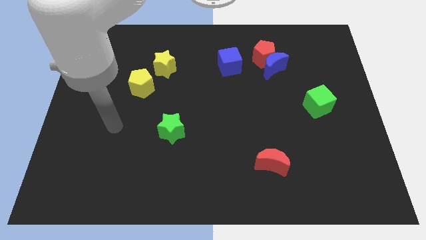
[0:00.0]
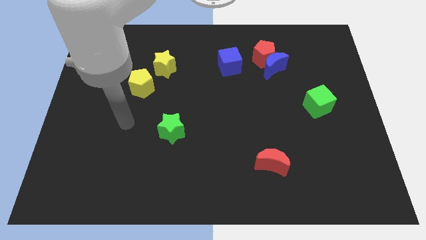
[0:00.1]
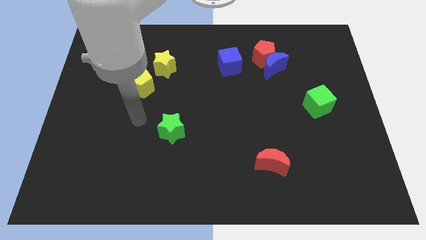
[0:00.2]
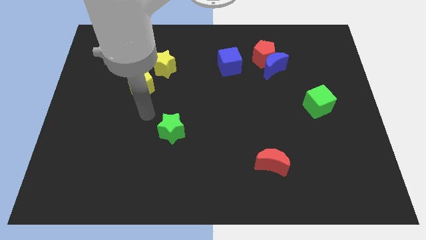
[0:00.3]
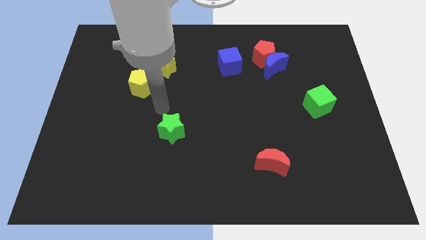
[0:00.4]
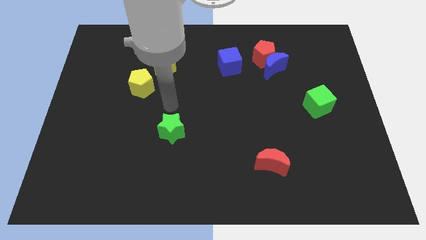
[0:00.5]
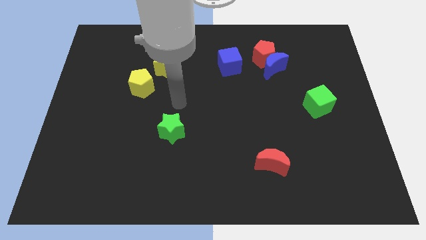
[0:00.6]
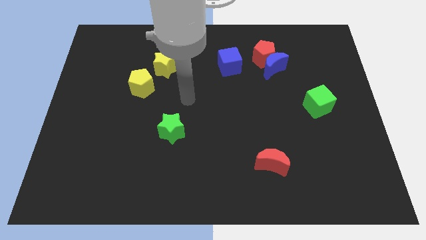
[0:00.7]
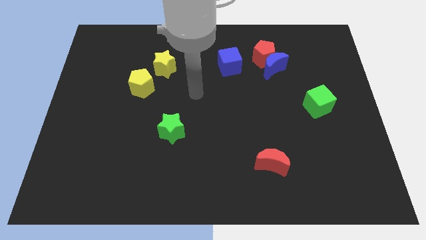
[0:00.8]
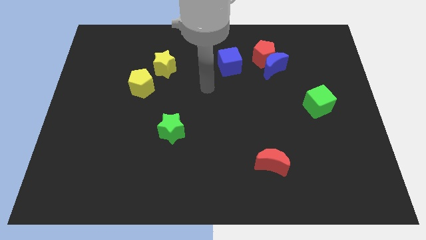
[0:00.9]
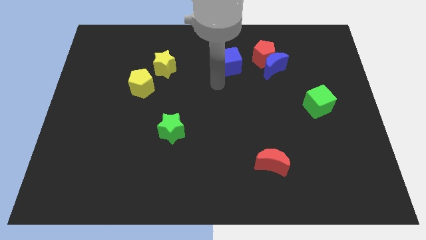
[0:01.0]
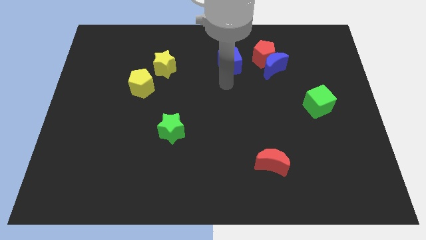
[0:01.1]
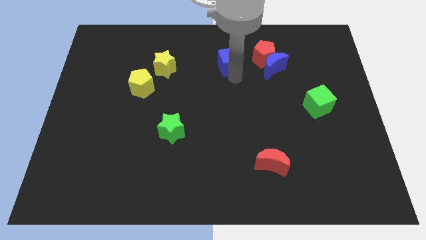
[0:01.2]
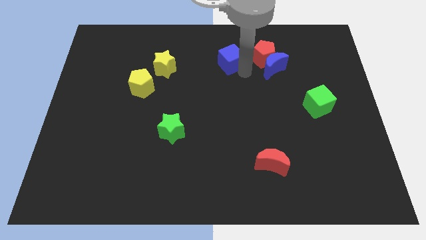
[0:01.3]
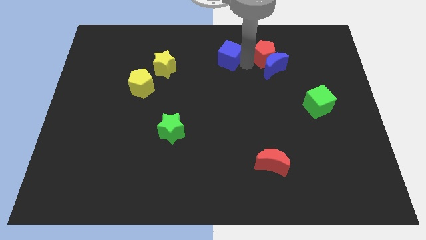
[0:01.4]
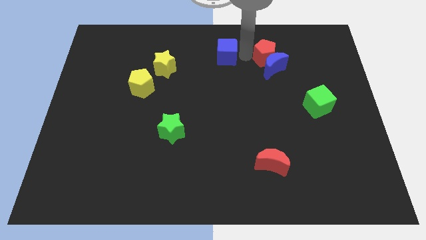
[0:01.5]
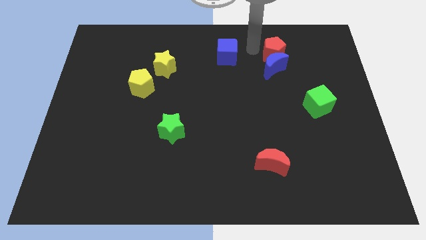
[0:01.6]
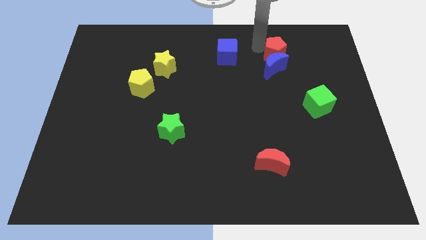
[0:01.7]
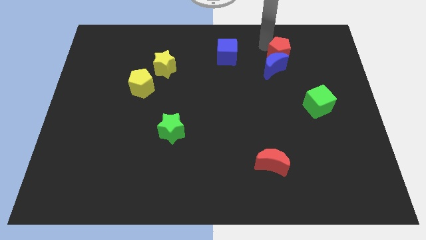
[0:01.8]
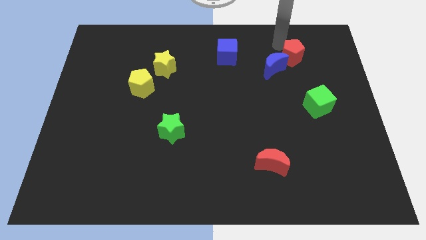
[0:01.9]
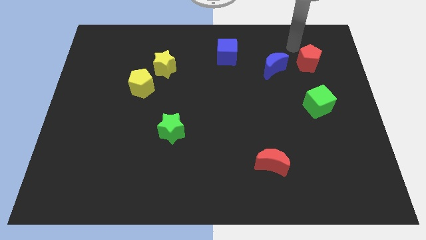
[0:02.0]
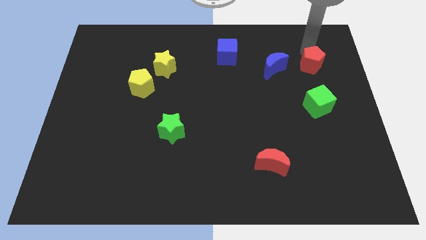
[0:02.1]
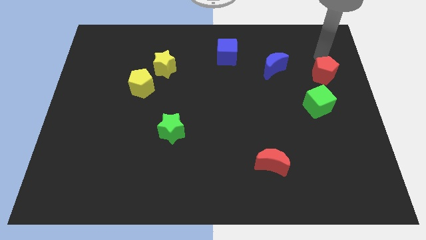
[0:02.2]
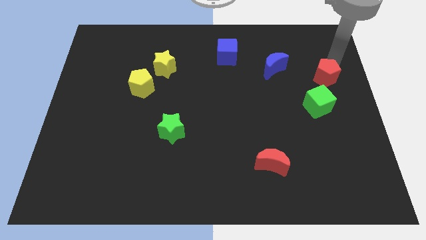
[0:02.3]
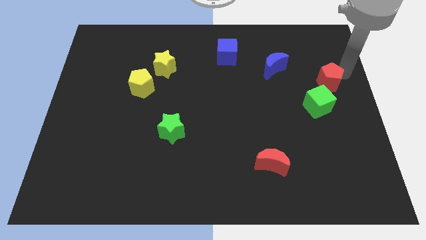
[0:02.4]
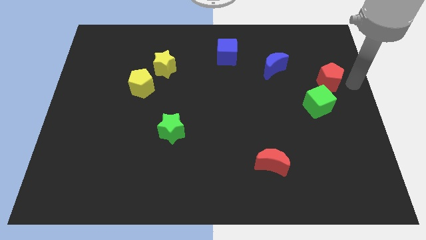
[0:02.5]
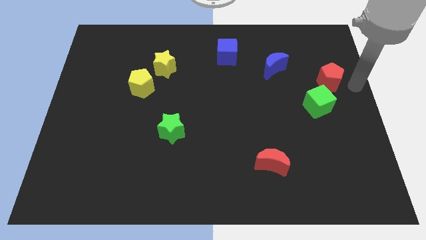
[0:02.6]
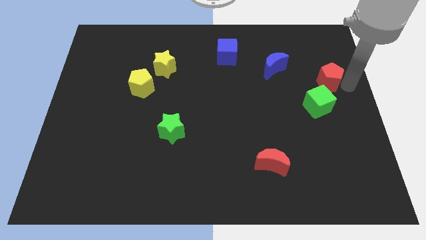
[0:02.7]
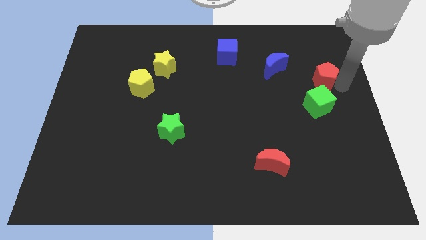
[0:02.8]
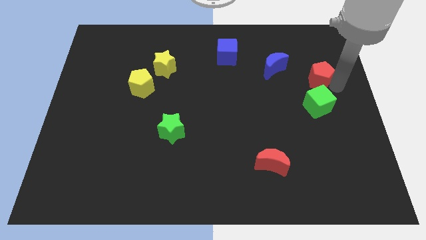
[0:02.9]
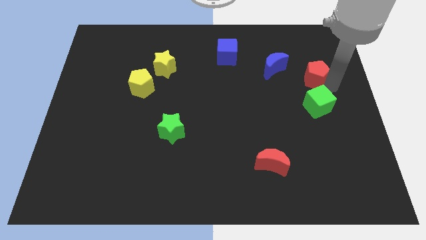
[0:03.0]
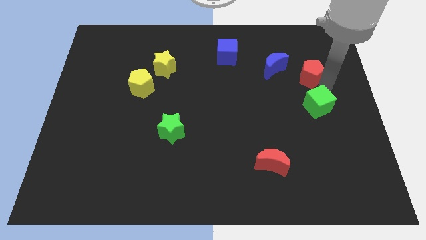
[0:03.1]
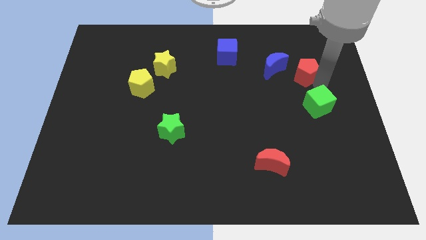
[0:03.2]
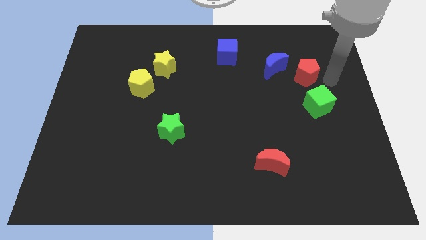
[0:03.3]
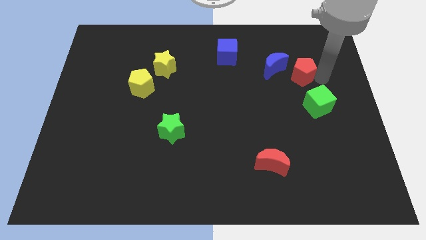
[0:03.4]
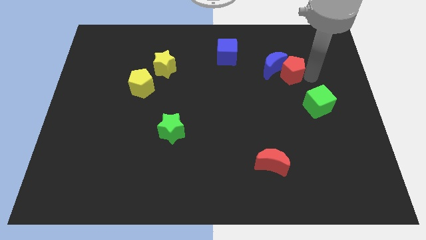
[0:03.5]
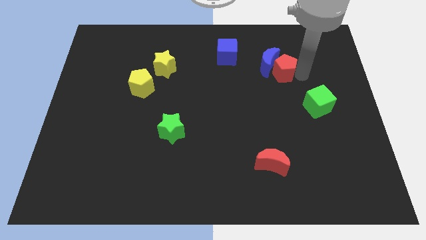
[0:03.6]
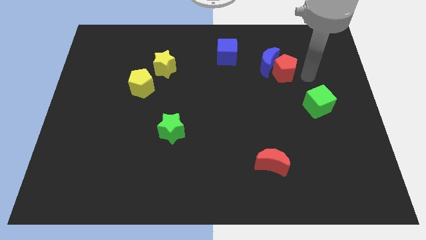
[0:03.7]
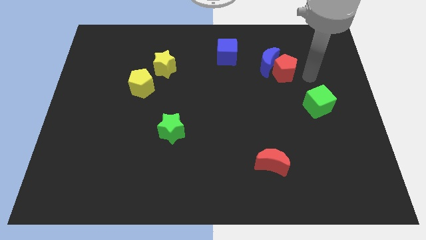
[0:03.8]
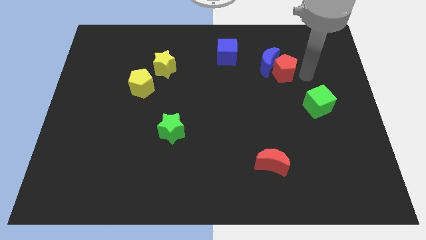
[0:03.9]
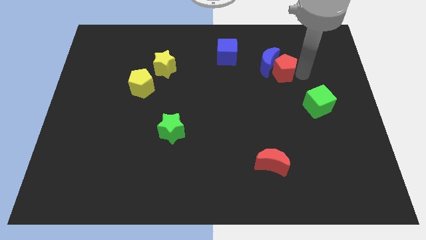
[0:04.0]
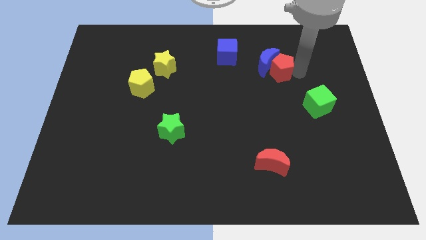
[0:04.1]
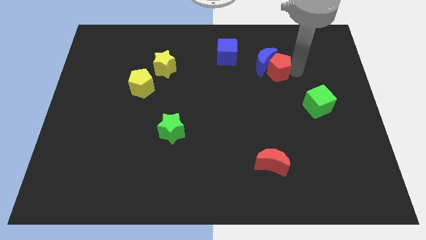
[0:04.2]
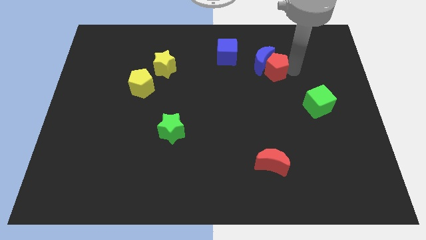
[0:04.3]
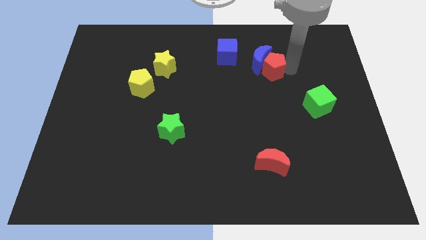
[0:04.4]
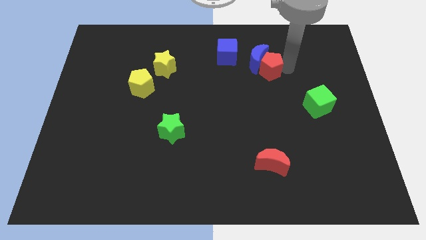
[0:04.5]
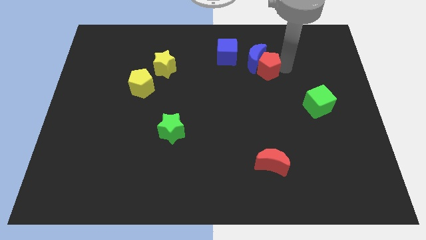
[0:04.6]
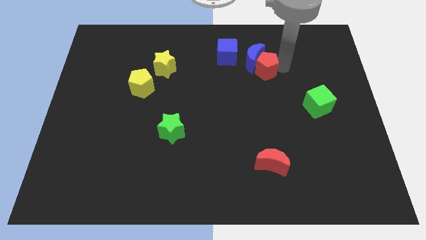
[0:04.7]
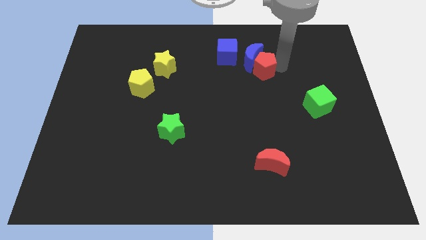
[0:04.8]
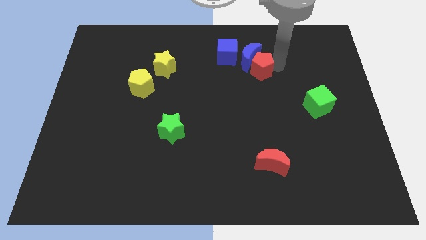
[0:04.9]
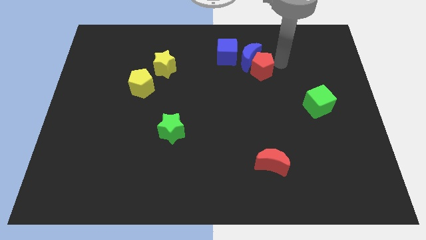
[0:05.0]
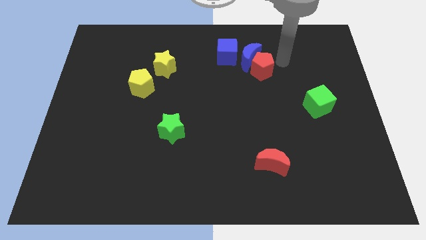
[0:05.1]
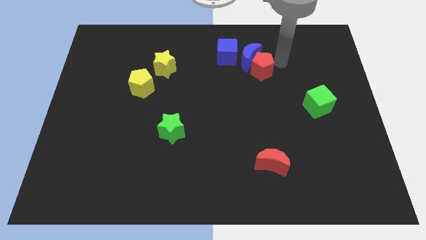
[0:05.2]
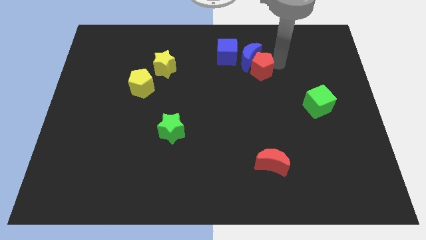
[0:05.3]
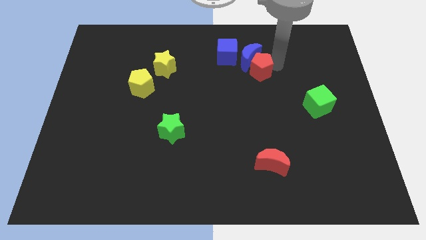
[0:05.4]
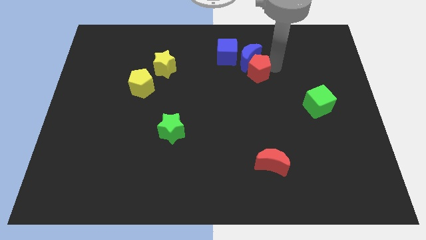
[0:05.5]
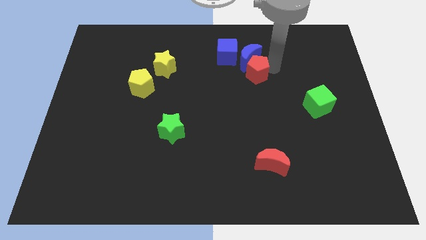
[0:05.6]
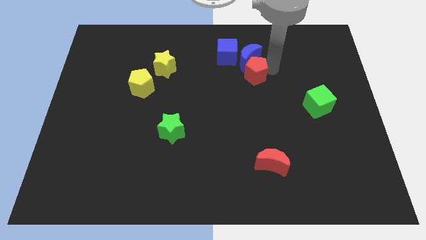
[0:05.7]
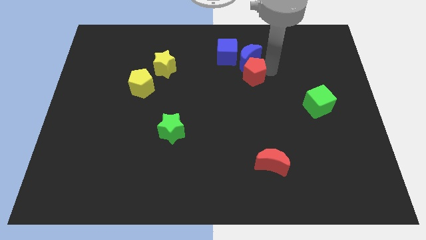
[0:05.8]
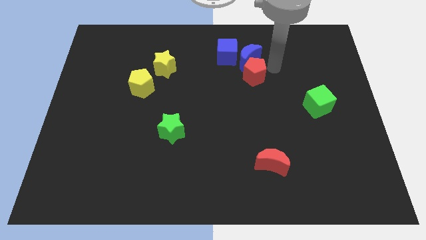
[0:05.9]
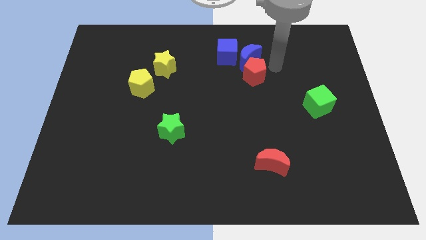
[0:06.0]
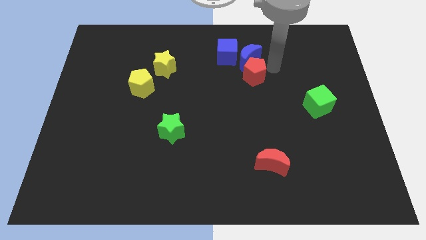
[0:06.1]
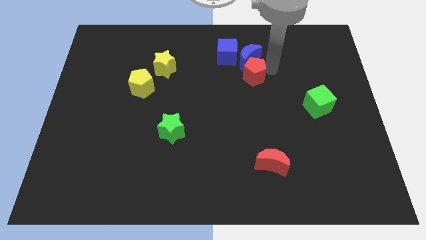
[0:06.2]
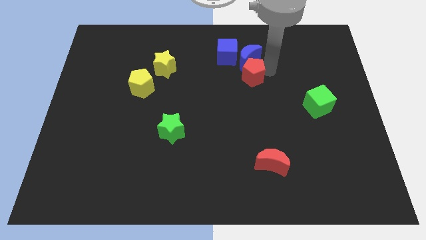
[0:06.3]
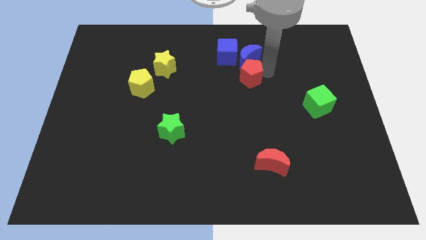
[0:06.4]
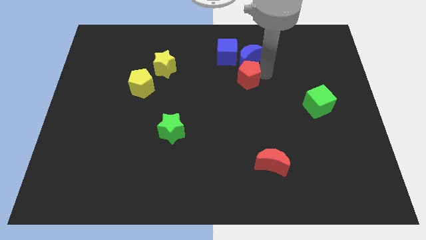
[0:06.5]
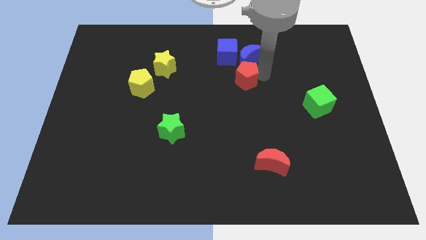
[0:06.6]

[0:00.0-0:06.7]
slide the red pentagon below the blue cube

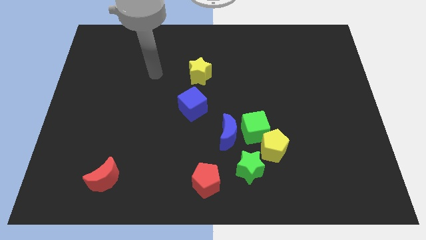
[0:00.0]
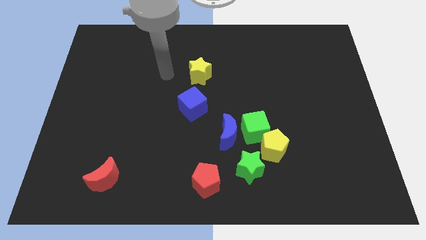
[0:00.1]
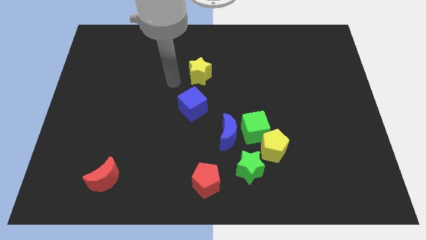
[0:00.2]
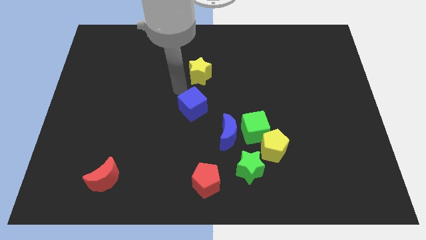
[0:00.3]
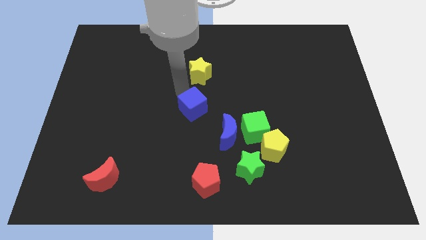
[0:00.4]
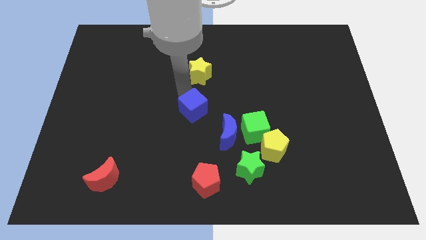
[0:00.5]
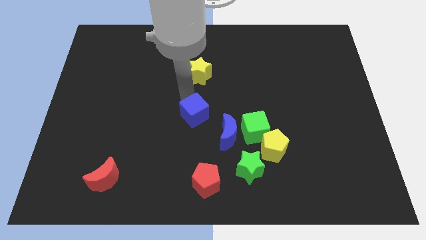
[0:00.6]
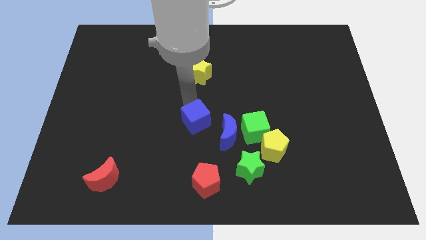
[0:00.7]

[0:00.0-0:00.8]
put the blue cube just left of the green cube
